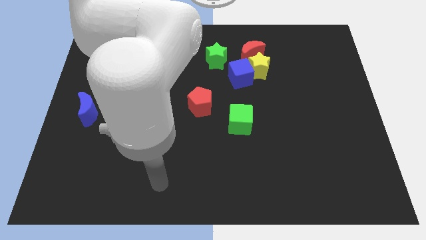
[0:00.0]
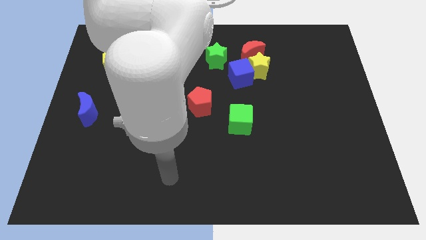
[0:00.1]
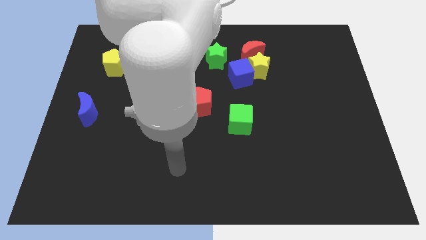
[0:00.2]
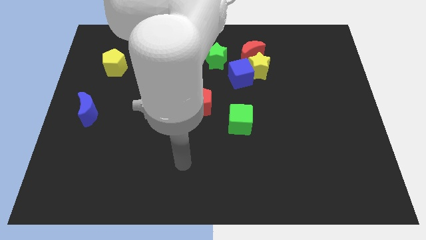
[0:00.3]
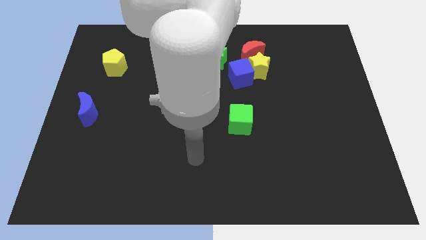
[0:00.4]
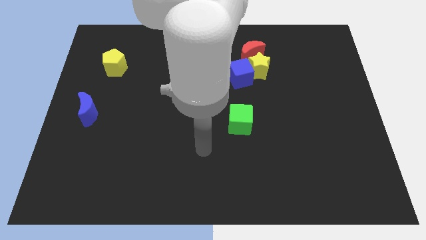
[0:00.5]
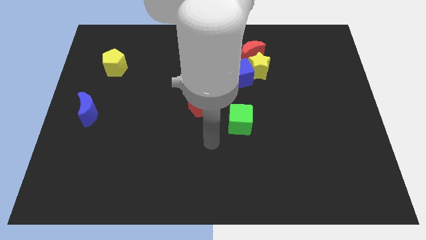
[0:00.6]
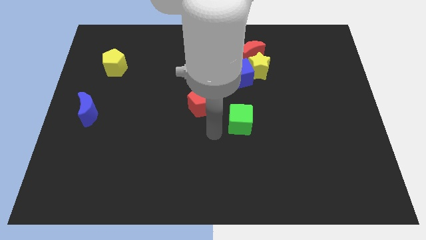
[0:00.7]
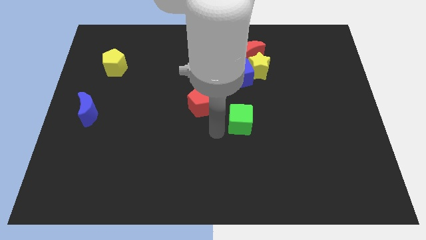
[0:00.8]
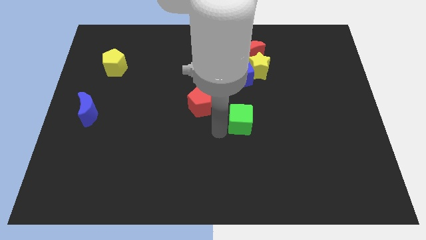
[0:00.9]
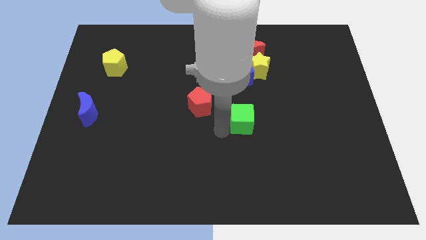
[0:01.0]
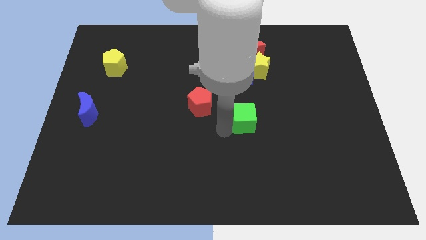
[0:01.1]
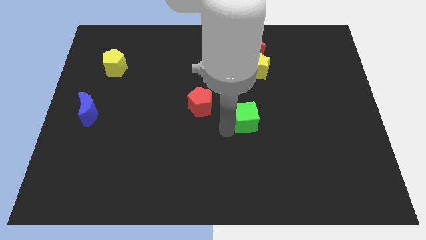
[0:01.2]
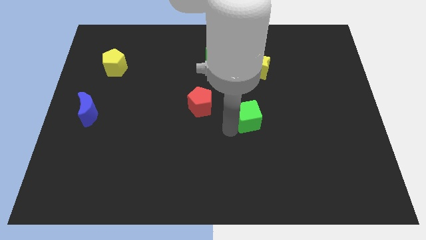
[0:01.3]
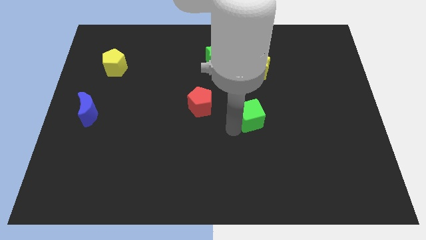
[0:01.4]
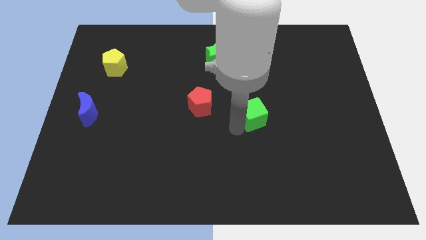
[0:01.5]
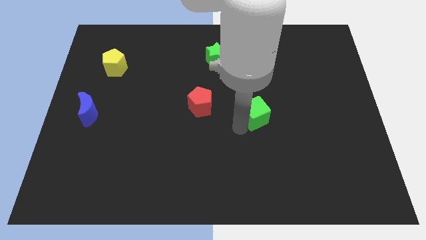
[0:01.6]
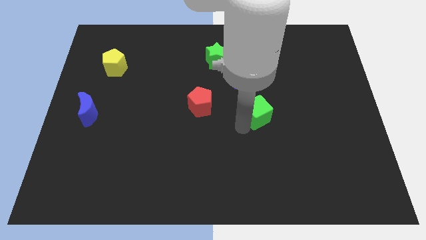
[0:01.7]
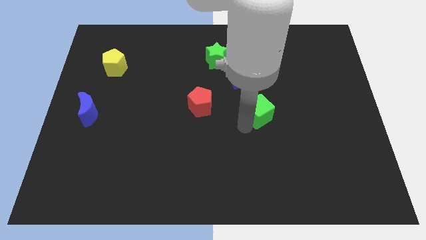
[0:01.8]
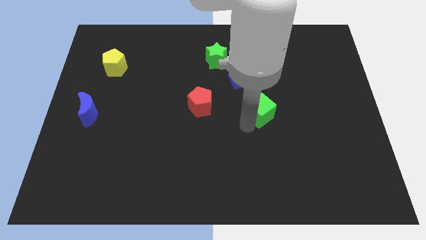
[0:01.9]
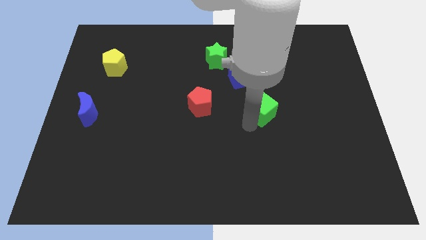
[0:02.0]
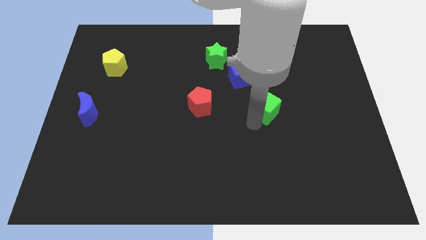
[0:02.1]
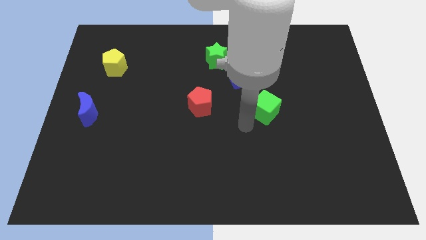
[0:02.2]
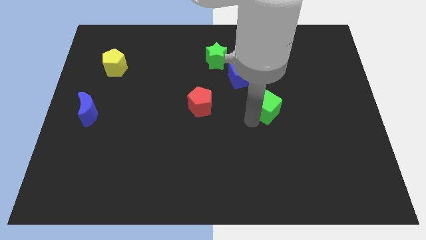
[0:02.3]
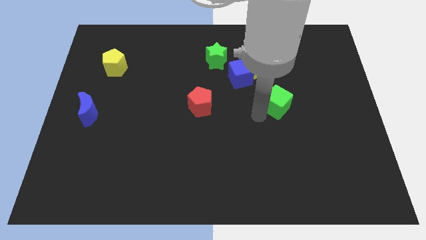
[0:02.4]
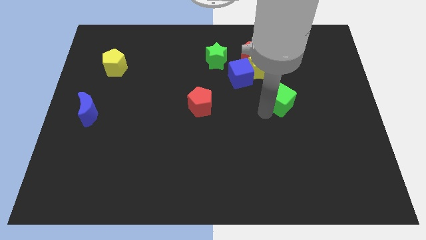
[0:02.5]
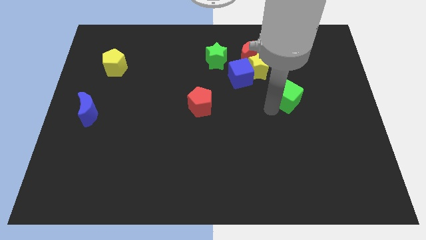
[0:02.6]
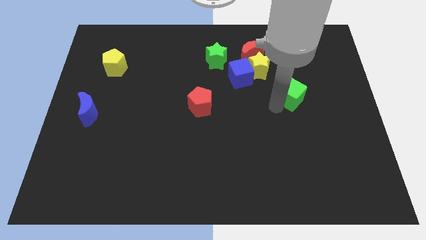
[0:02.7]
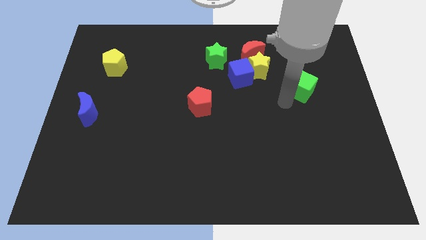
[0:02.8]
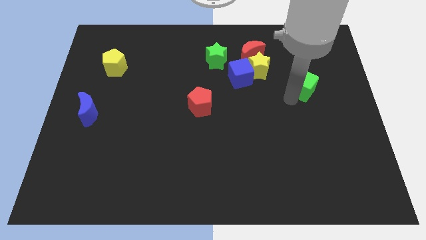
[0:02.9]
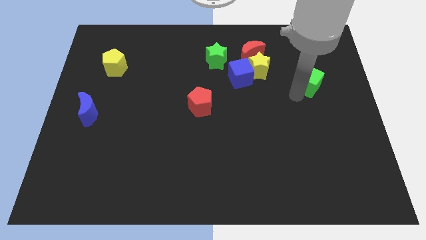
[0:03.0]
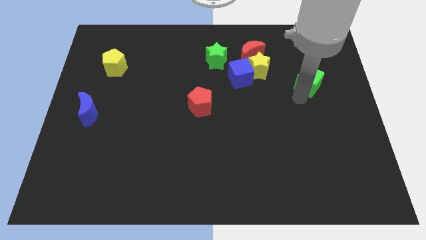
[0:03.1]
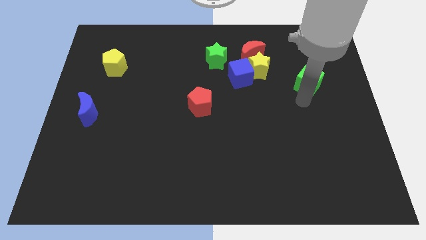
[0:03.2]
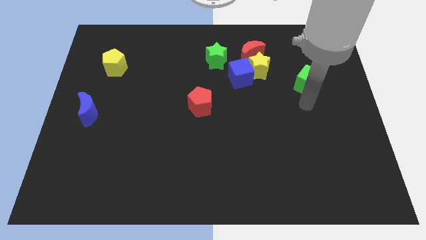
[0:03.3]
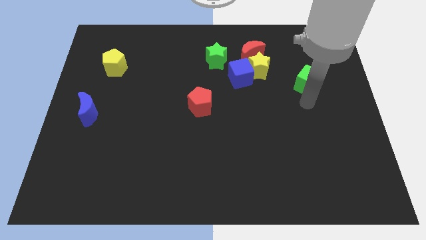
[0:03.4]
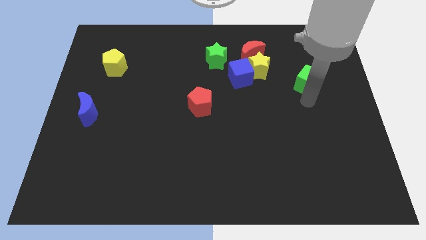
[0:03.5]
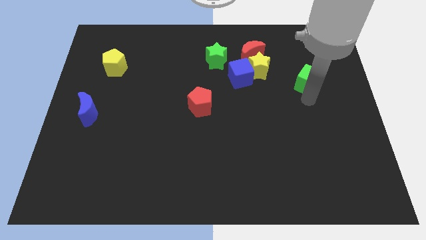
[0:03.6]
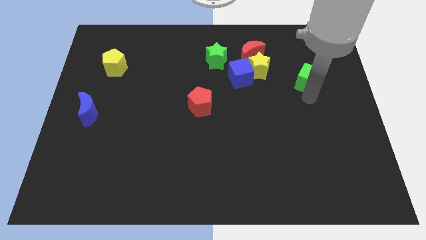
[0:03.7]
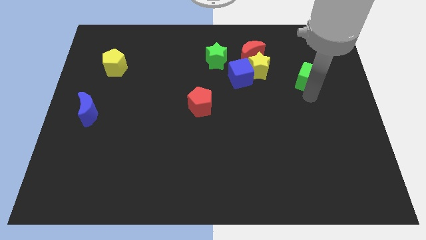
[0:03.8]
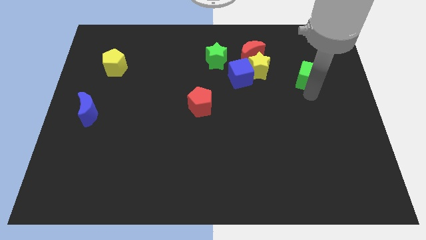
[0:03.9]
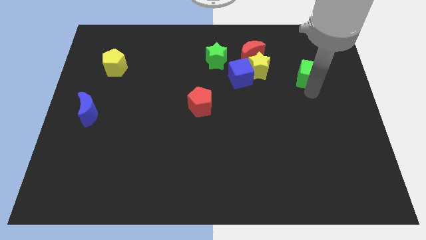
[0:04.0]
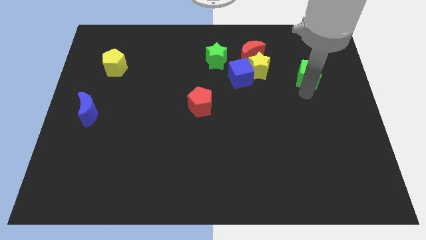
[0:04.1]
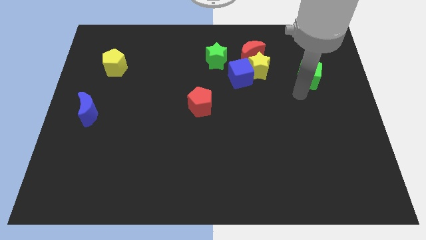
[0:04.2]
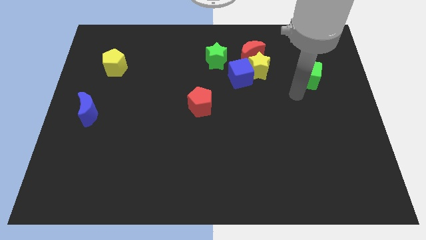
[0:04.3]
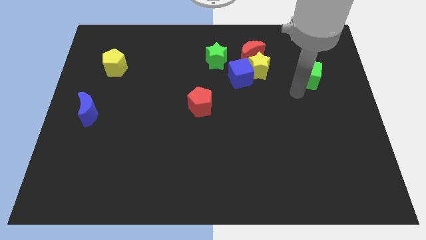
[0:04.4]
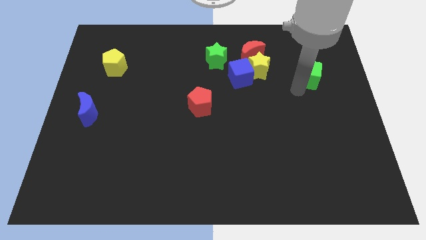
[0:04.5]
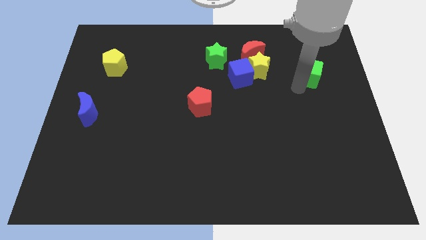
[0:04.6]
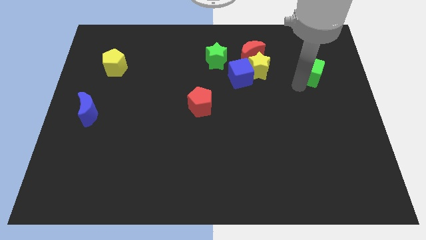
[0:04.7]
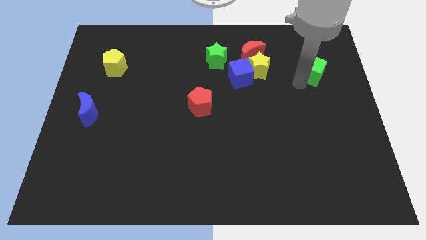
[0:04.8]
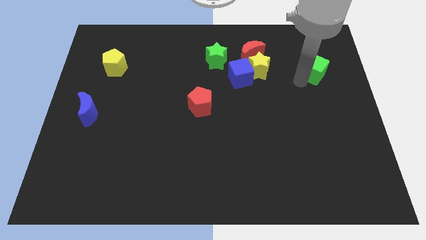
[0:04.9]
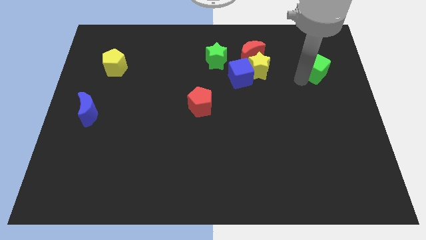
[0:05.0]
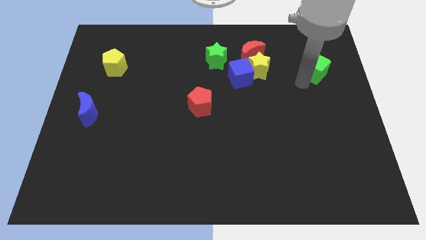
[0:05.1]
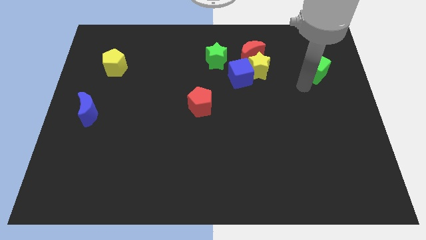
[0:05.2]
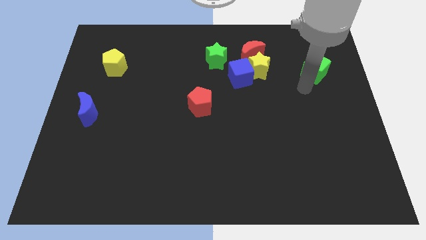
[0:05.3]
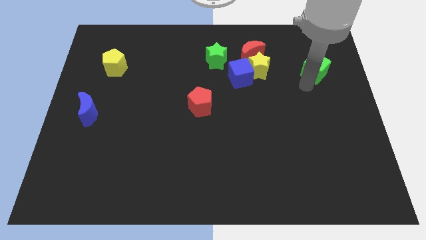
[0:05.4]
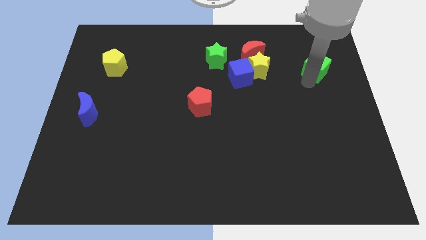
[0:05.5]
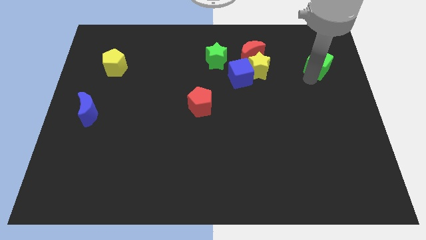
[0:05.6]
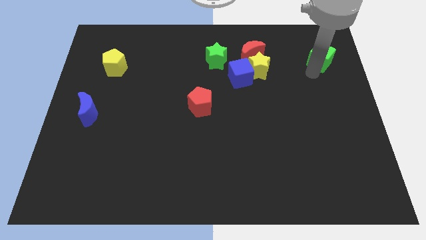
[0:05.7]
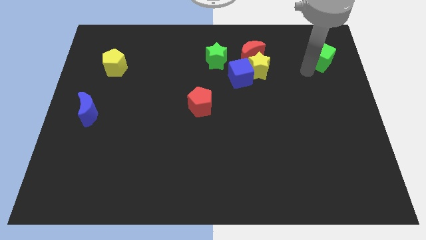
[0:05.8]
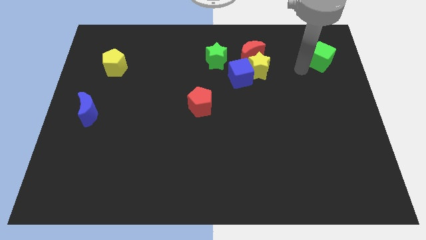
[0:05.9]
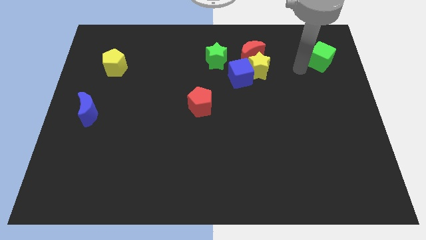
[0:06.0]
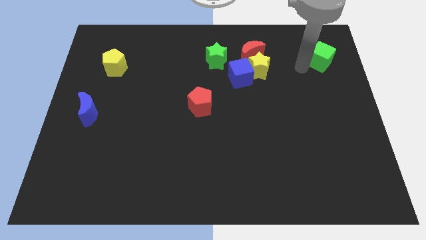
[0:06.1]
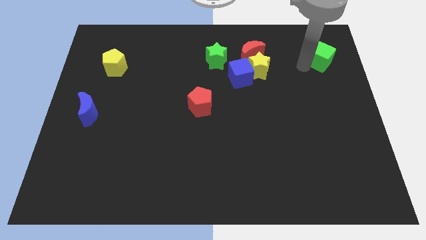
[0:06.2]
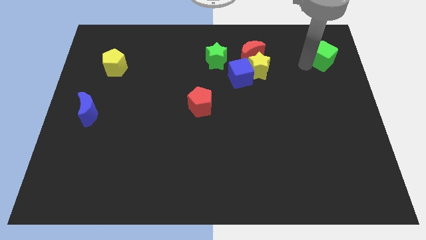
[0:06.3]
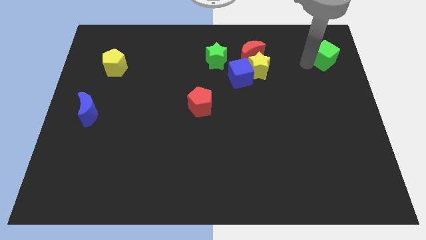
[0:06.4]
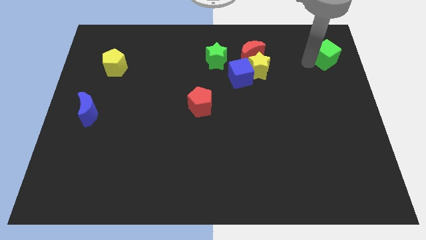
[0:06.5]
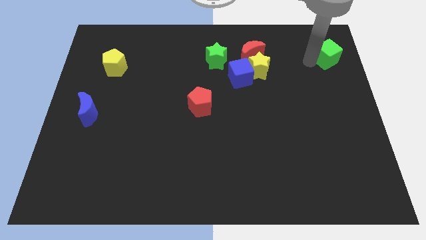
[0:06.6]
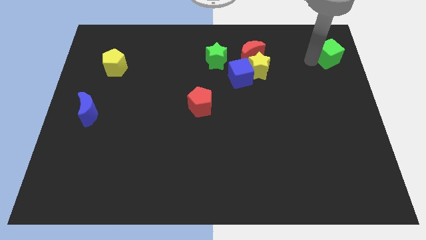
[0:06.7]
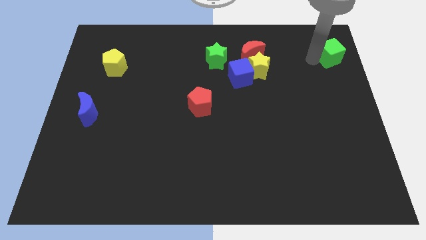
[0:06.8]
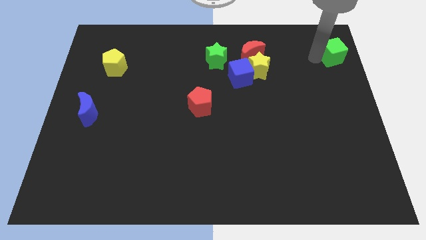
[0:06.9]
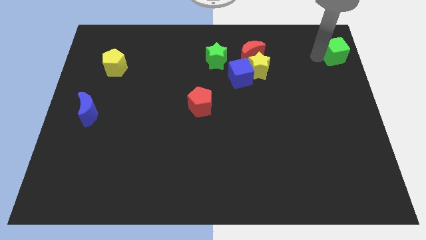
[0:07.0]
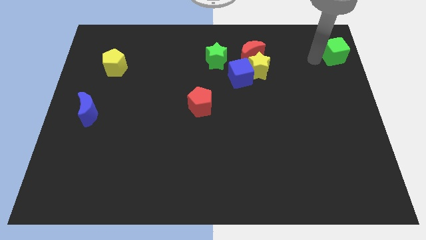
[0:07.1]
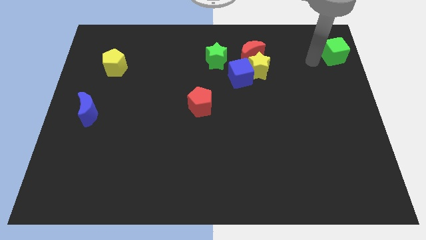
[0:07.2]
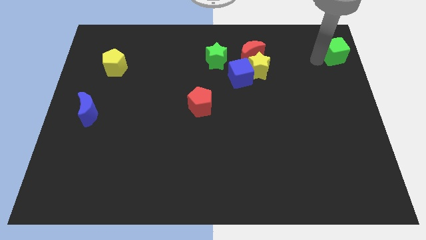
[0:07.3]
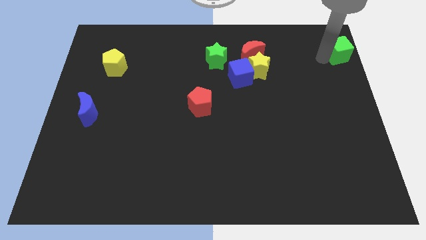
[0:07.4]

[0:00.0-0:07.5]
move the green cube to the top right of the board
